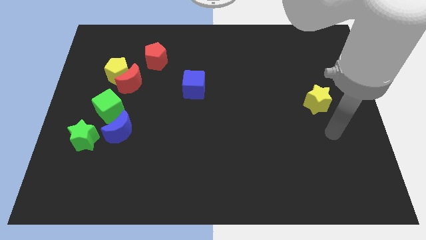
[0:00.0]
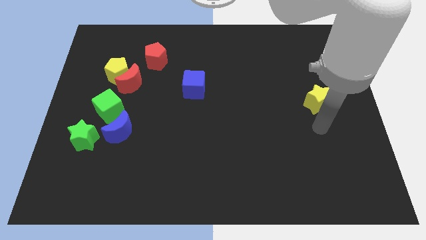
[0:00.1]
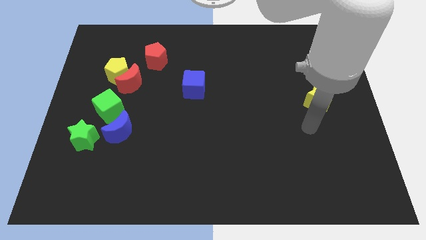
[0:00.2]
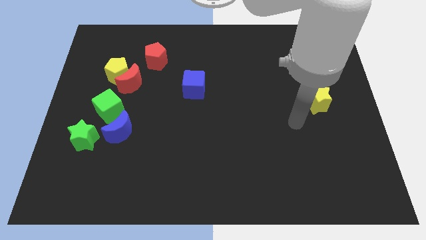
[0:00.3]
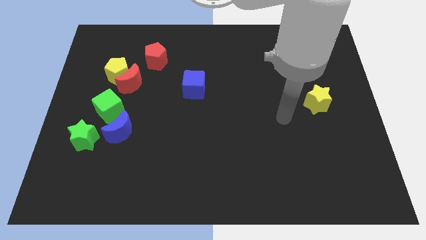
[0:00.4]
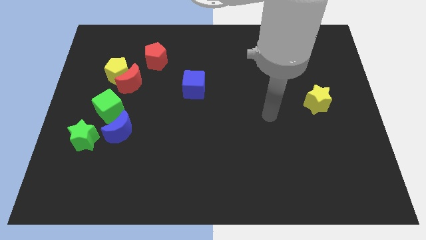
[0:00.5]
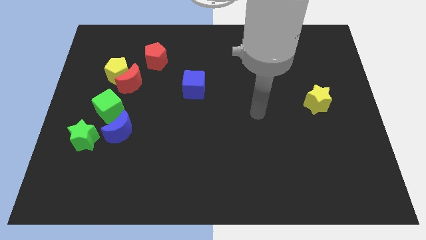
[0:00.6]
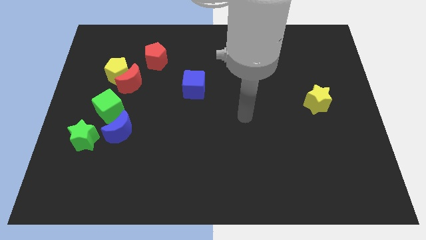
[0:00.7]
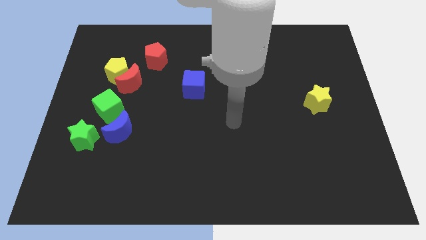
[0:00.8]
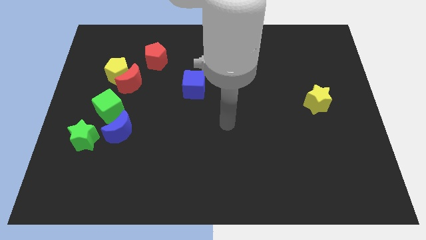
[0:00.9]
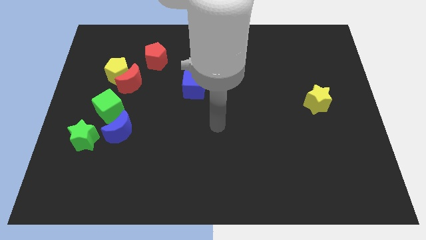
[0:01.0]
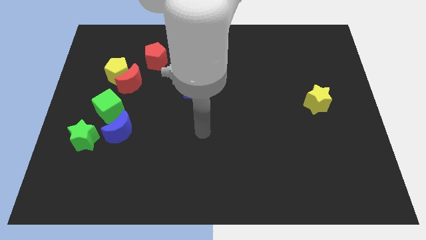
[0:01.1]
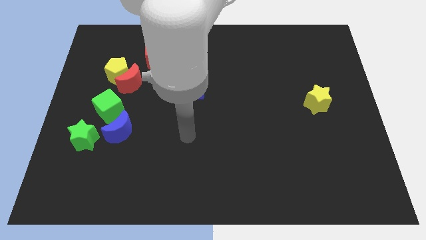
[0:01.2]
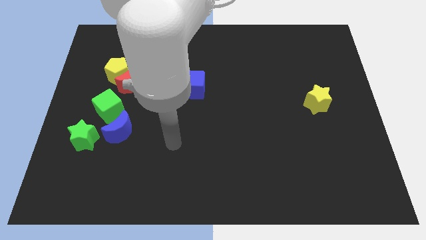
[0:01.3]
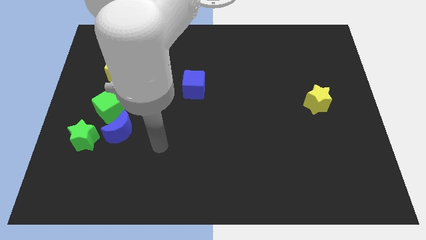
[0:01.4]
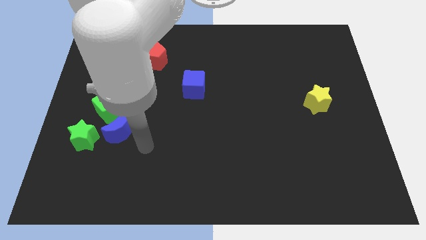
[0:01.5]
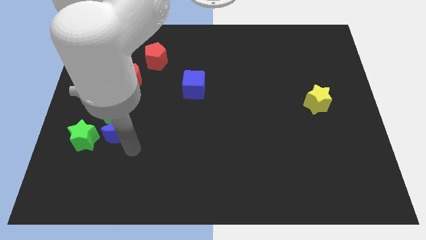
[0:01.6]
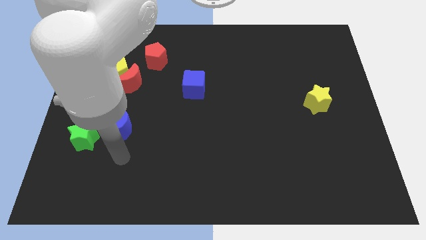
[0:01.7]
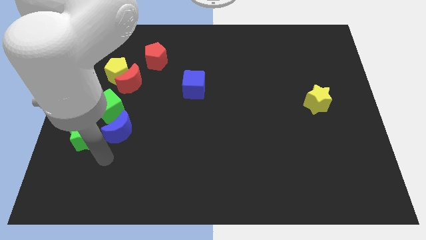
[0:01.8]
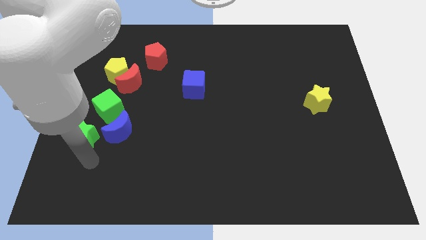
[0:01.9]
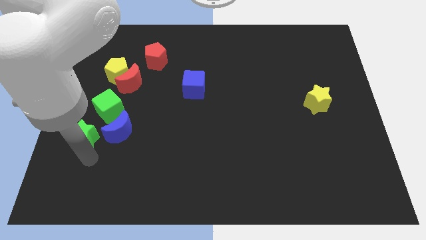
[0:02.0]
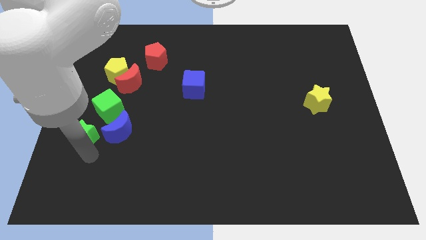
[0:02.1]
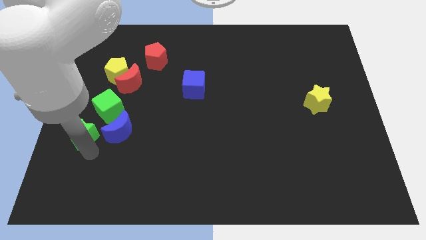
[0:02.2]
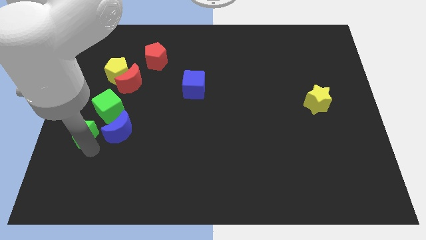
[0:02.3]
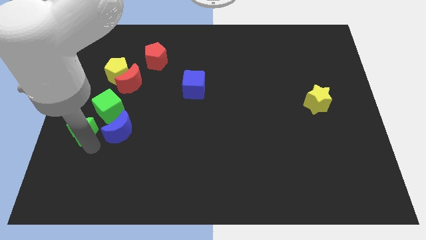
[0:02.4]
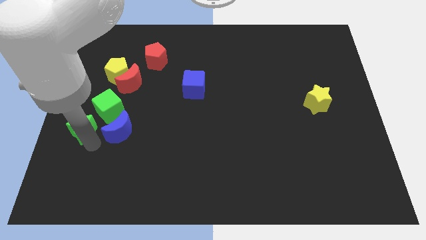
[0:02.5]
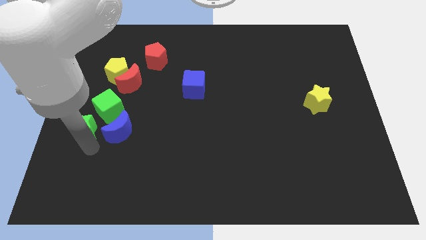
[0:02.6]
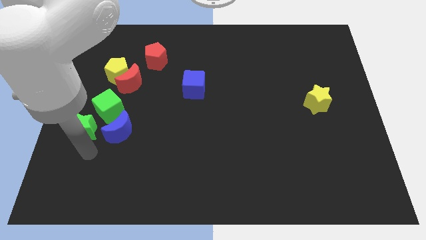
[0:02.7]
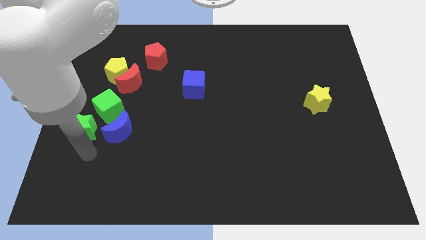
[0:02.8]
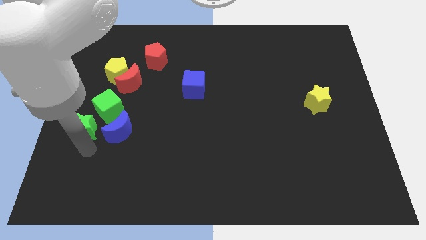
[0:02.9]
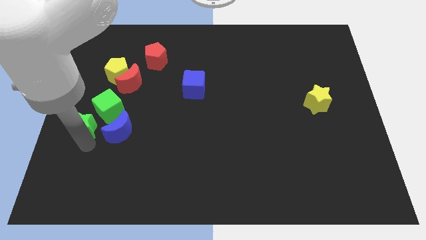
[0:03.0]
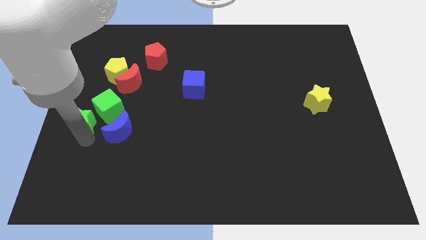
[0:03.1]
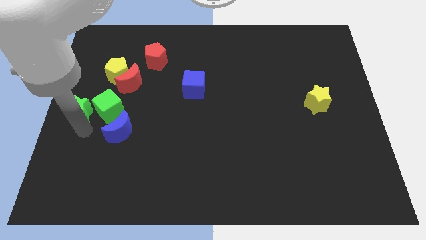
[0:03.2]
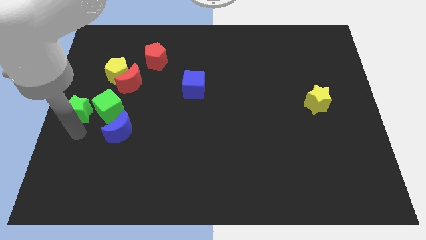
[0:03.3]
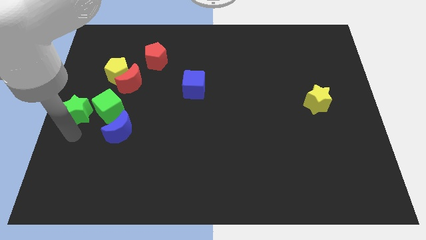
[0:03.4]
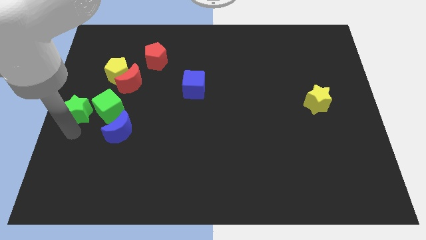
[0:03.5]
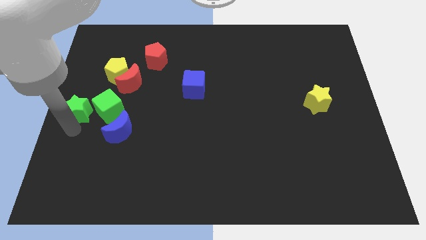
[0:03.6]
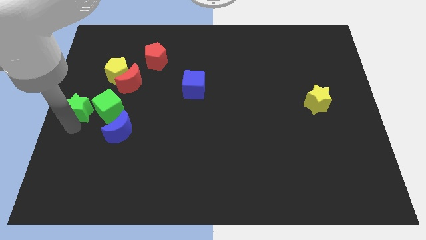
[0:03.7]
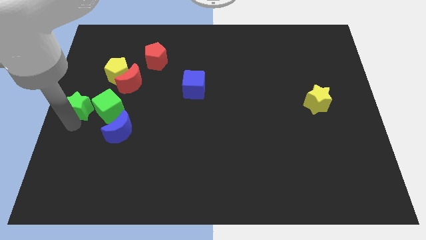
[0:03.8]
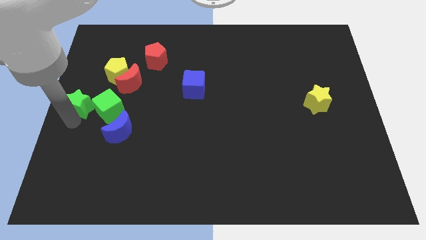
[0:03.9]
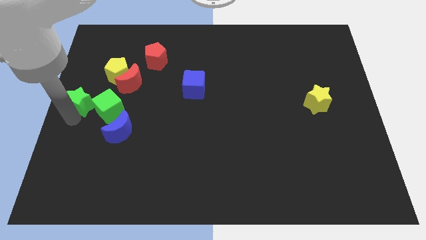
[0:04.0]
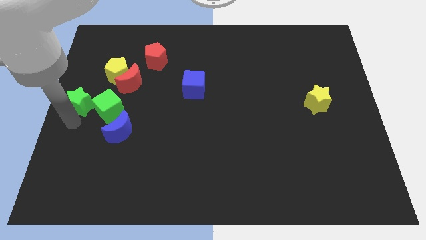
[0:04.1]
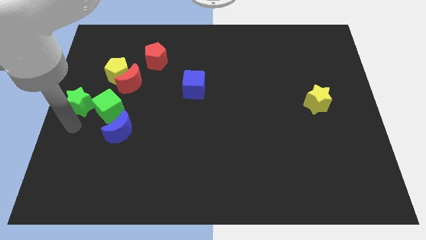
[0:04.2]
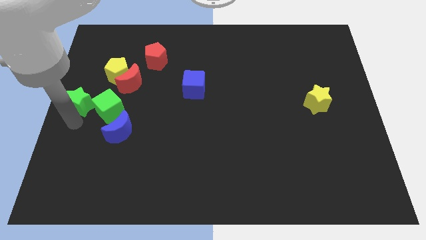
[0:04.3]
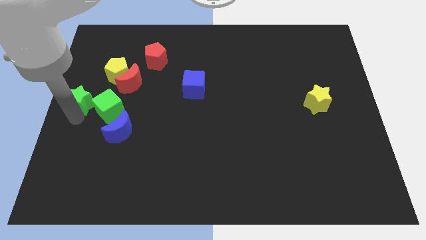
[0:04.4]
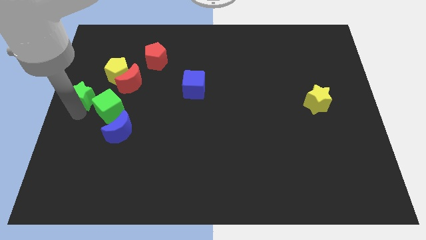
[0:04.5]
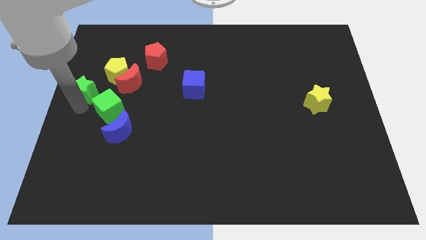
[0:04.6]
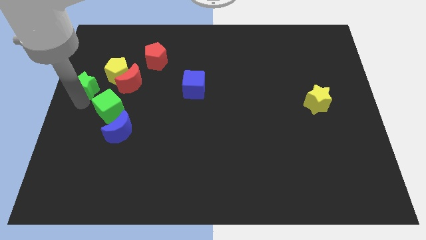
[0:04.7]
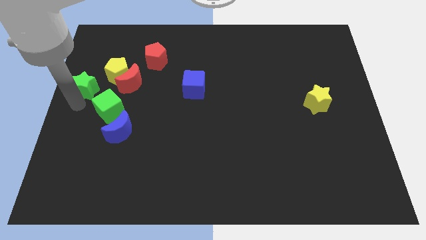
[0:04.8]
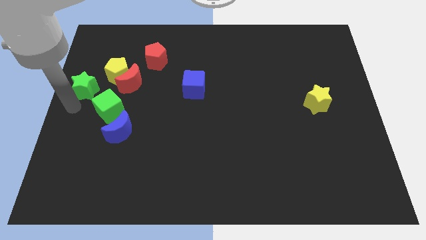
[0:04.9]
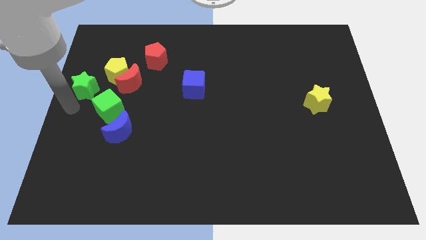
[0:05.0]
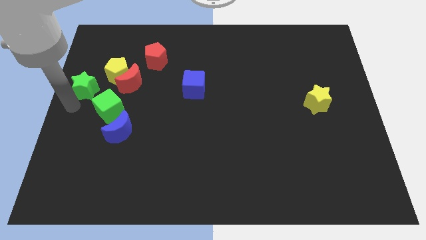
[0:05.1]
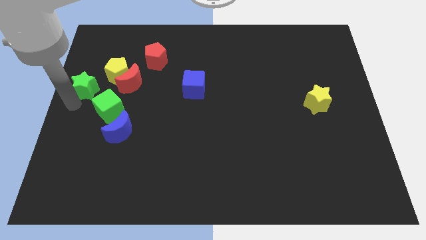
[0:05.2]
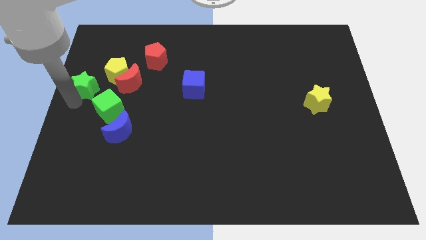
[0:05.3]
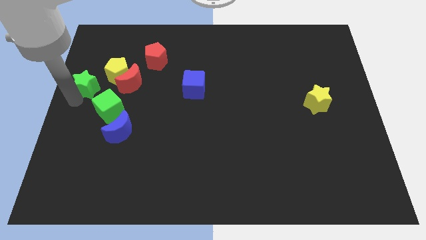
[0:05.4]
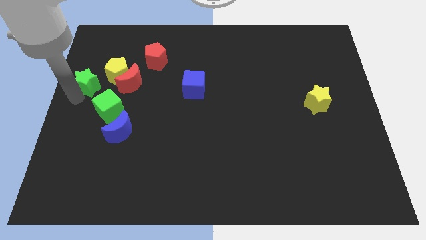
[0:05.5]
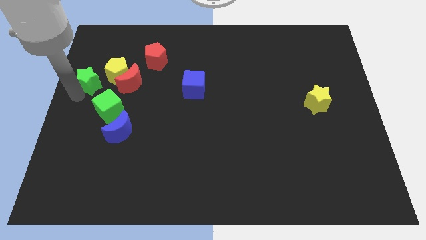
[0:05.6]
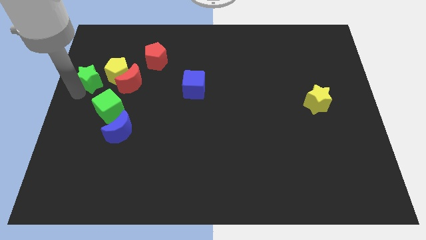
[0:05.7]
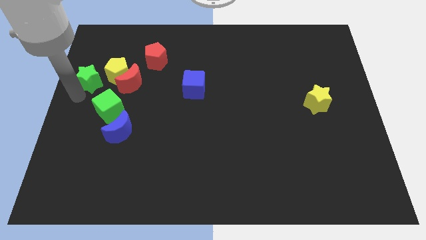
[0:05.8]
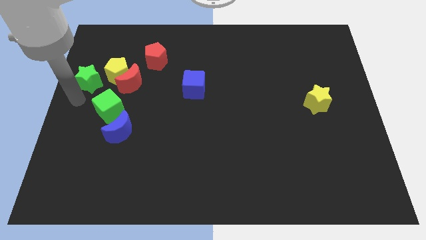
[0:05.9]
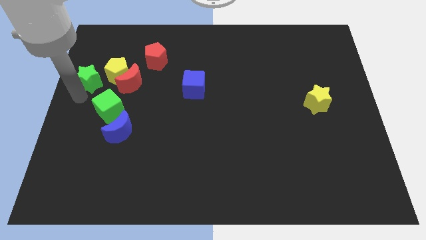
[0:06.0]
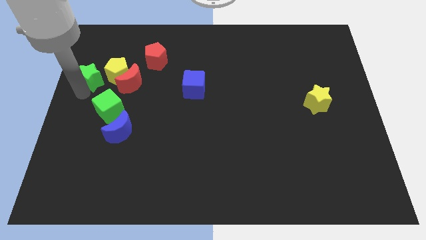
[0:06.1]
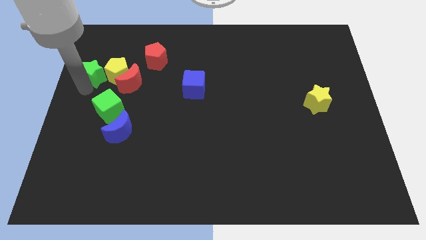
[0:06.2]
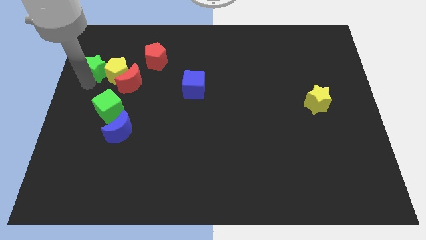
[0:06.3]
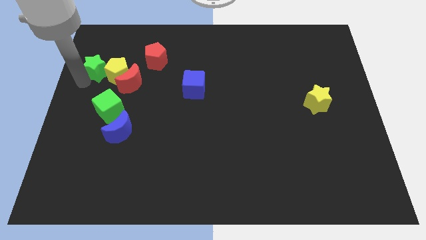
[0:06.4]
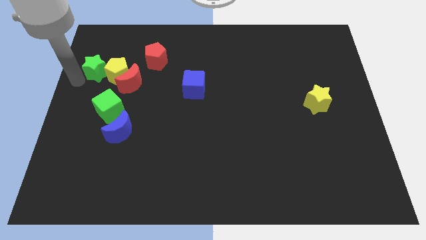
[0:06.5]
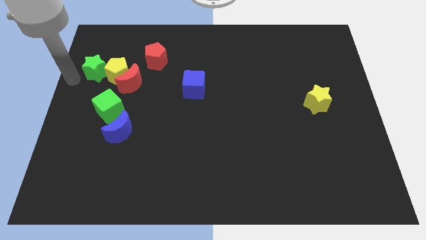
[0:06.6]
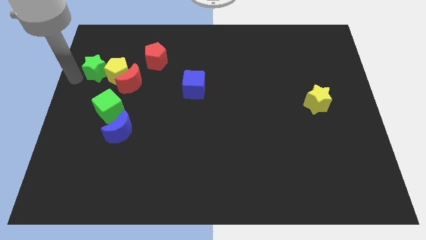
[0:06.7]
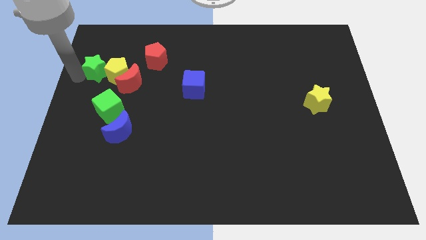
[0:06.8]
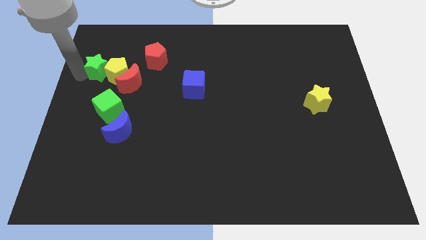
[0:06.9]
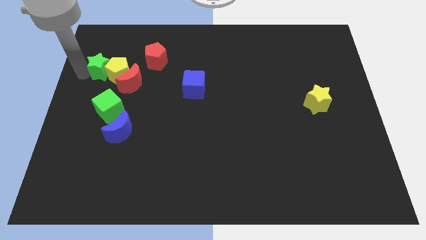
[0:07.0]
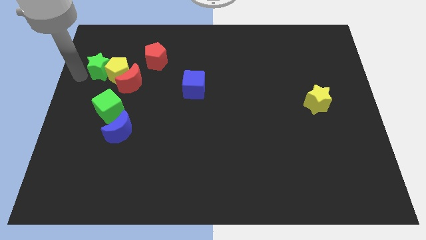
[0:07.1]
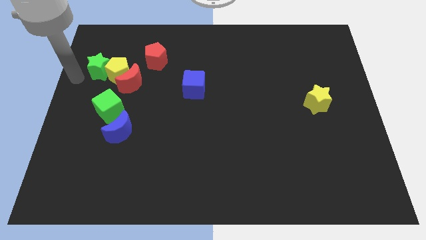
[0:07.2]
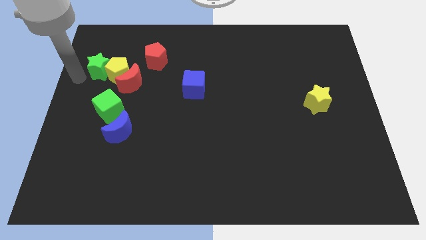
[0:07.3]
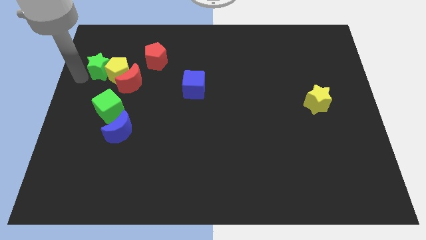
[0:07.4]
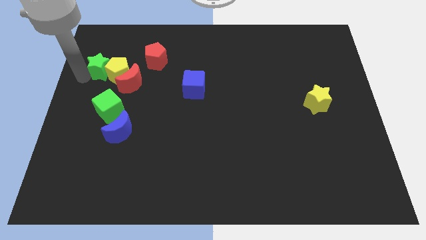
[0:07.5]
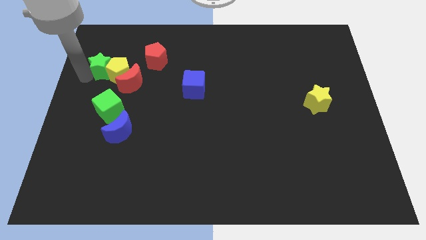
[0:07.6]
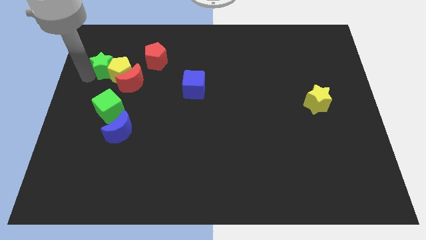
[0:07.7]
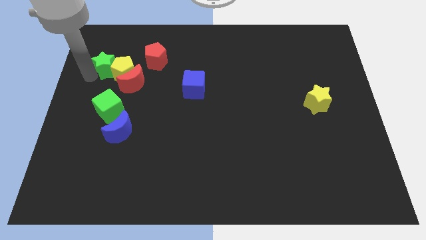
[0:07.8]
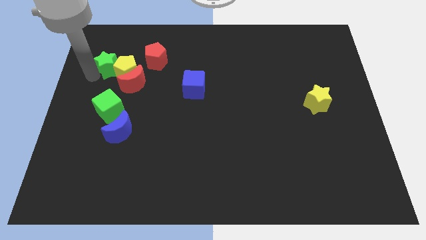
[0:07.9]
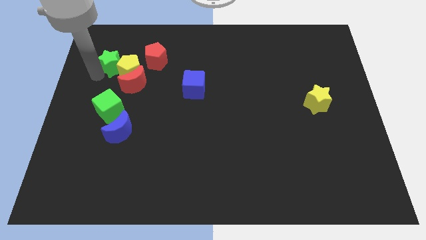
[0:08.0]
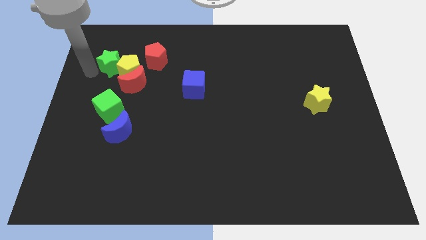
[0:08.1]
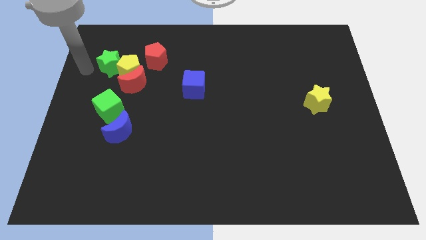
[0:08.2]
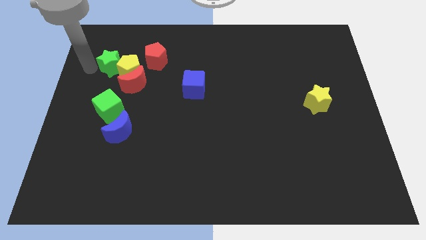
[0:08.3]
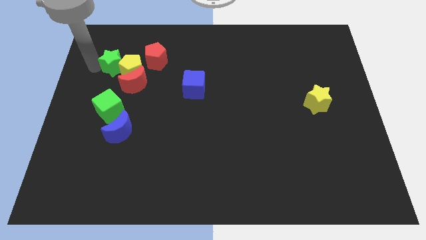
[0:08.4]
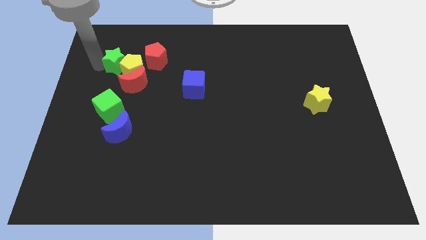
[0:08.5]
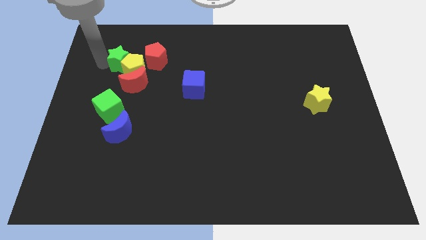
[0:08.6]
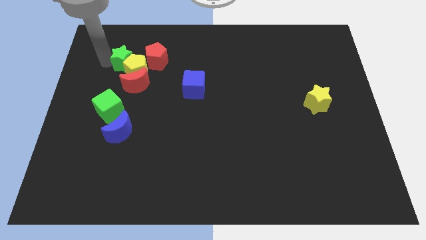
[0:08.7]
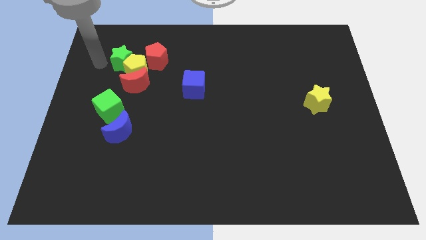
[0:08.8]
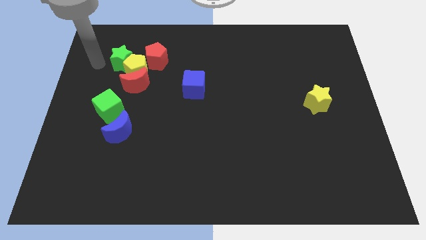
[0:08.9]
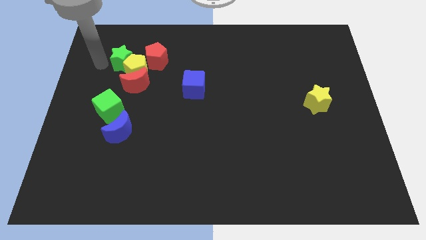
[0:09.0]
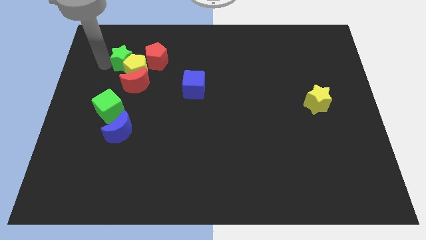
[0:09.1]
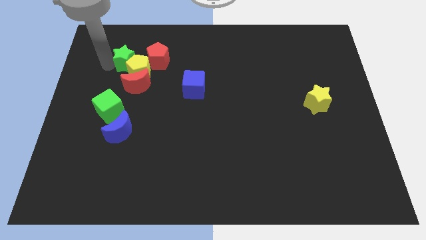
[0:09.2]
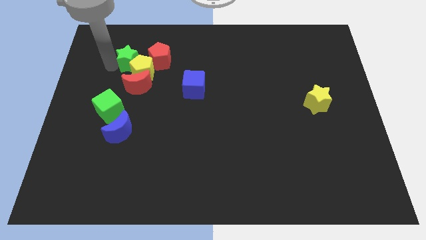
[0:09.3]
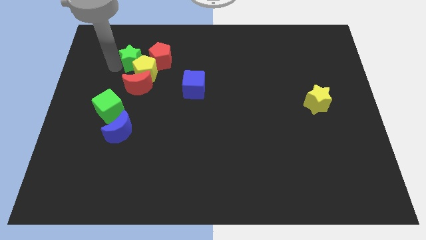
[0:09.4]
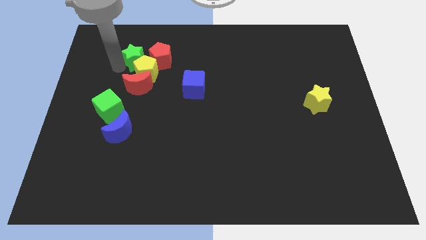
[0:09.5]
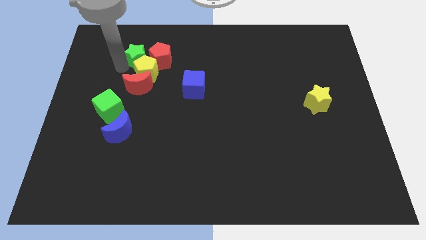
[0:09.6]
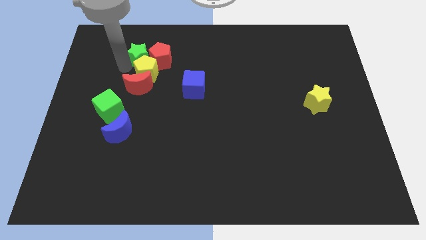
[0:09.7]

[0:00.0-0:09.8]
push the green star towards the red pentagon
